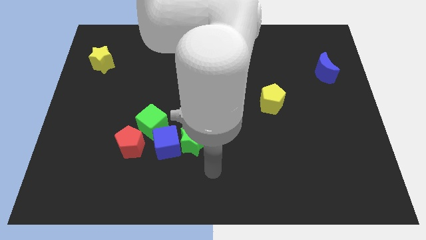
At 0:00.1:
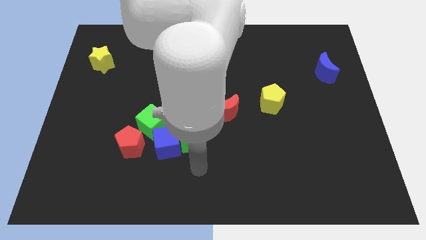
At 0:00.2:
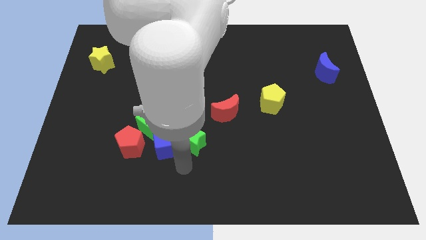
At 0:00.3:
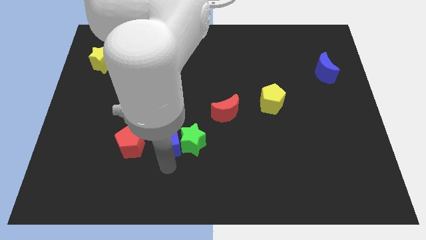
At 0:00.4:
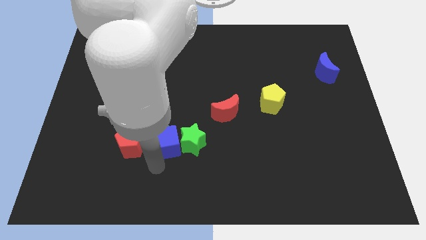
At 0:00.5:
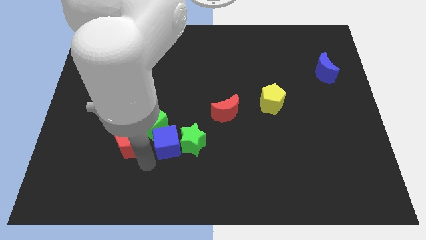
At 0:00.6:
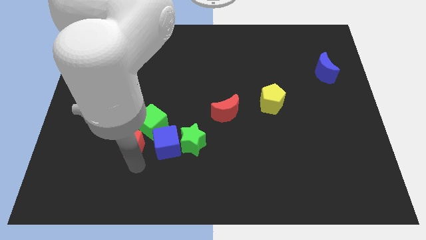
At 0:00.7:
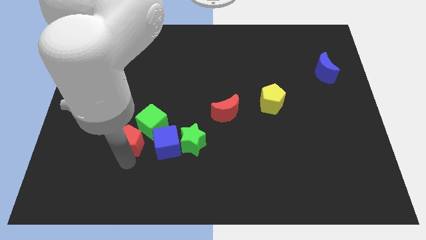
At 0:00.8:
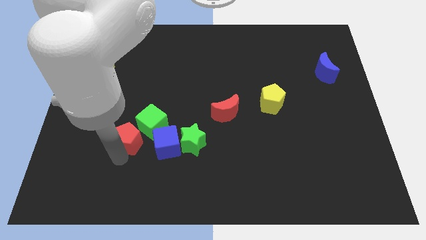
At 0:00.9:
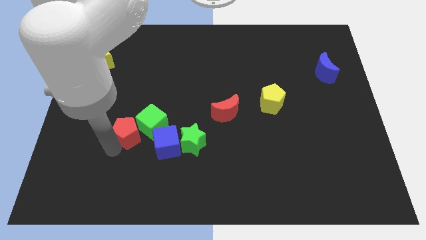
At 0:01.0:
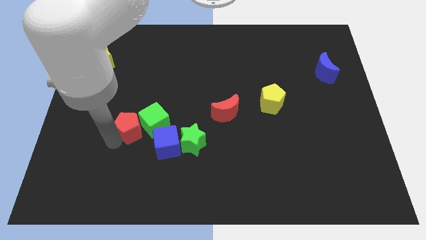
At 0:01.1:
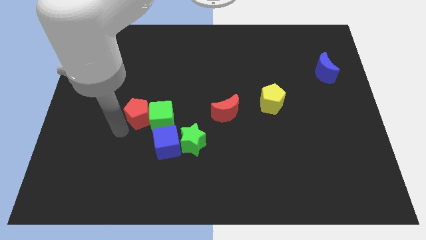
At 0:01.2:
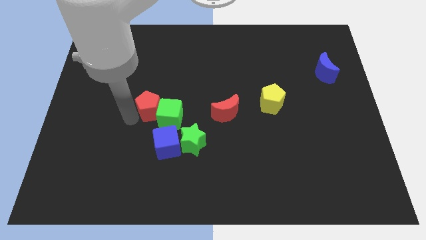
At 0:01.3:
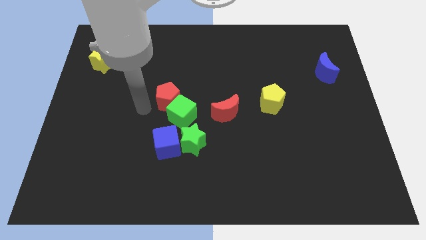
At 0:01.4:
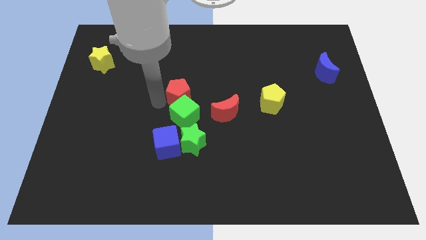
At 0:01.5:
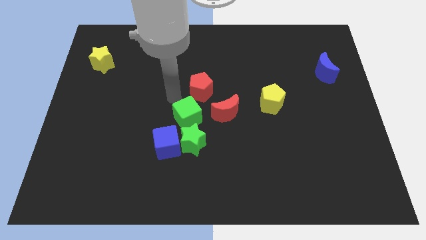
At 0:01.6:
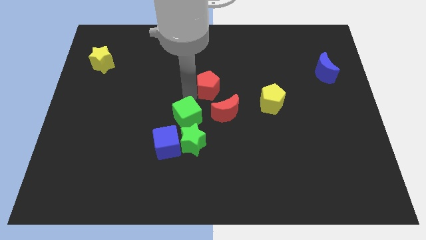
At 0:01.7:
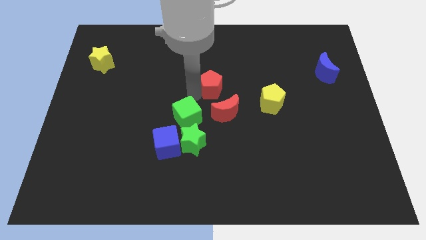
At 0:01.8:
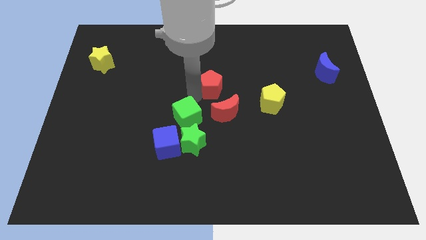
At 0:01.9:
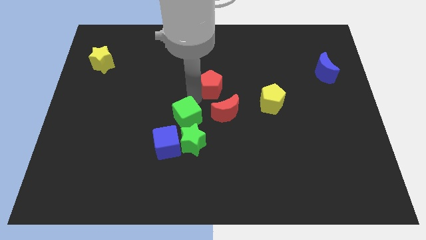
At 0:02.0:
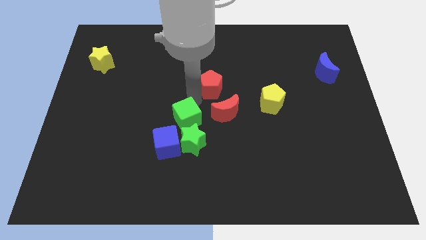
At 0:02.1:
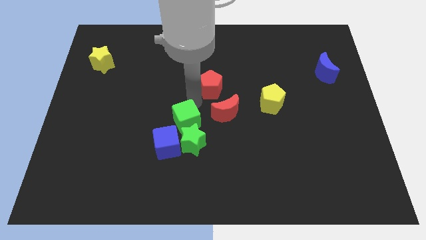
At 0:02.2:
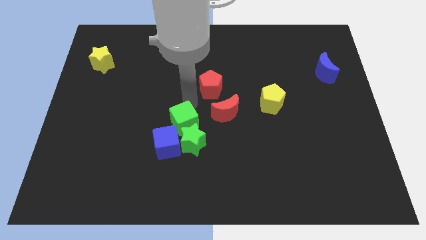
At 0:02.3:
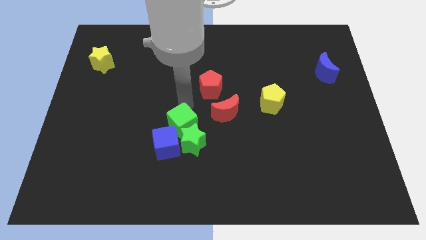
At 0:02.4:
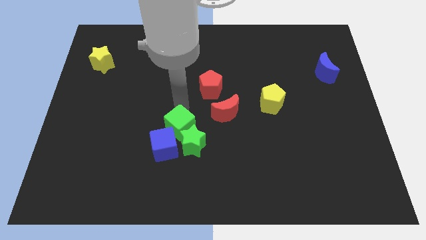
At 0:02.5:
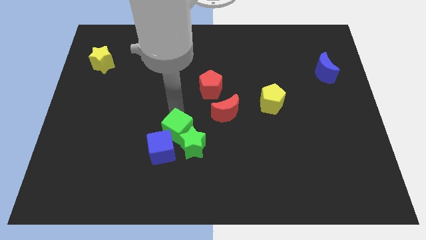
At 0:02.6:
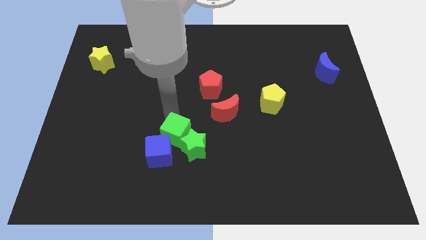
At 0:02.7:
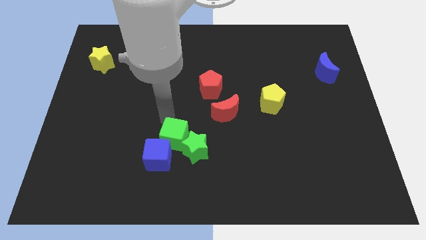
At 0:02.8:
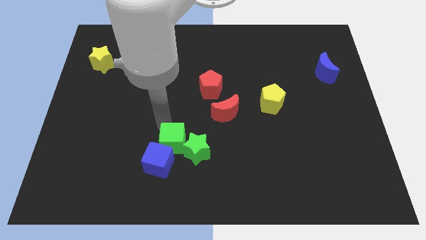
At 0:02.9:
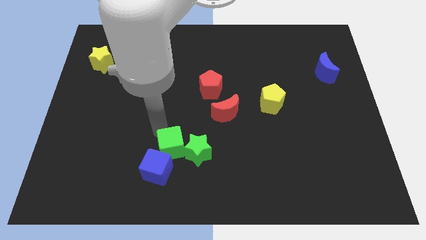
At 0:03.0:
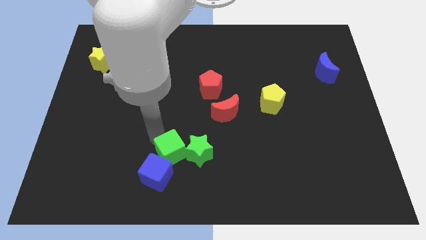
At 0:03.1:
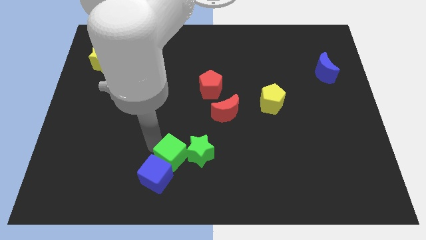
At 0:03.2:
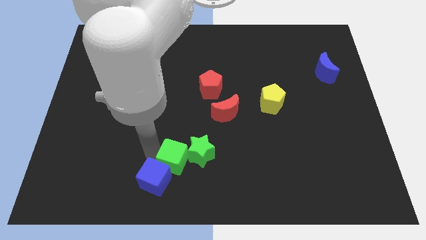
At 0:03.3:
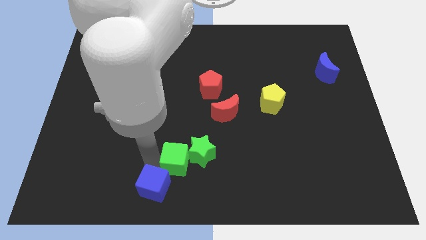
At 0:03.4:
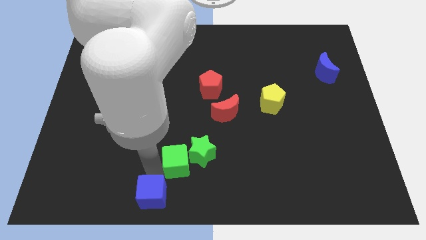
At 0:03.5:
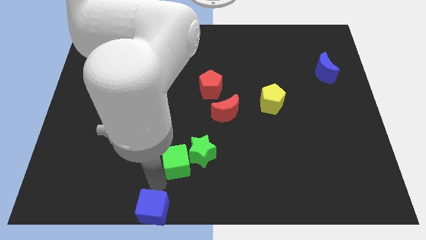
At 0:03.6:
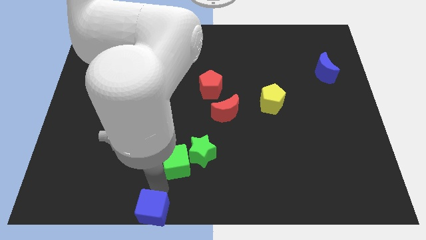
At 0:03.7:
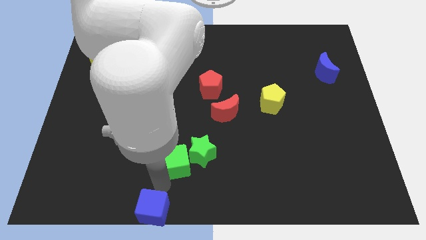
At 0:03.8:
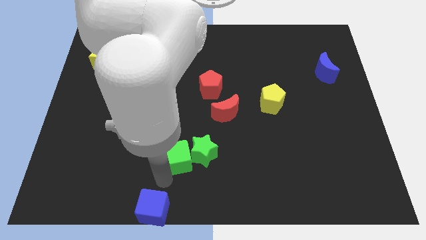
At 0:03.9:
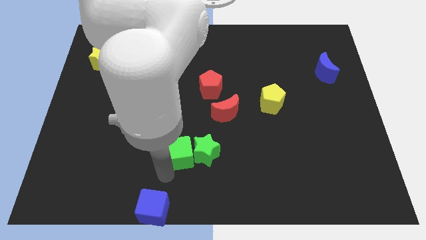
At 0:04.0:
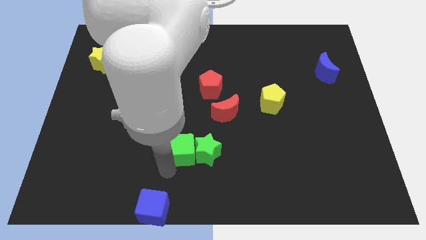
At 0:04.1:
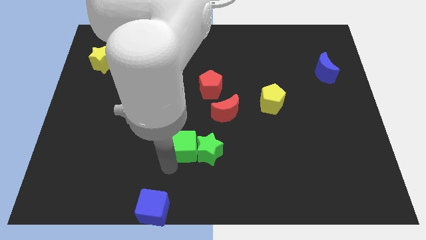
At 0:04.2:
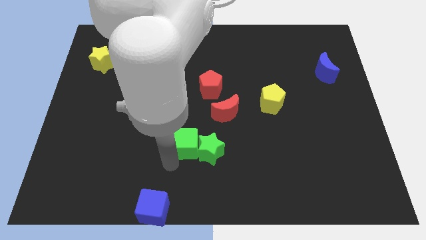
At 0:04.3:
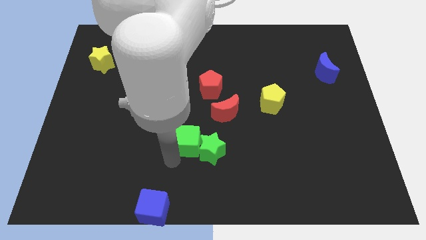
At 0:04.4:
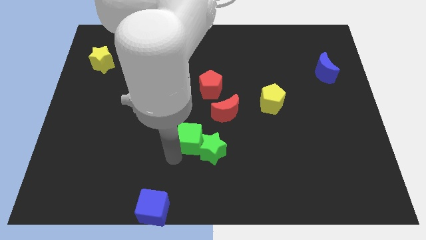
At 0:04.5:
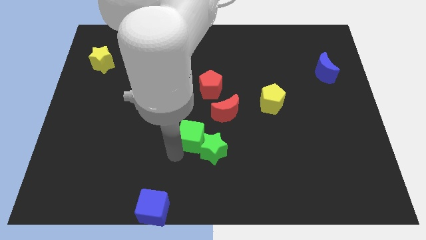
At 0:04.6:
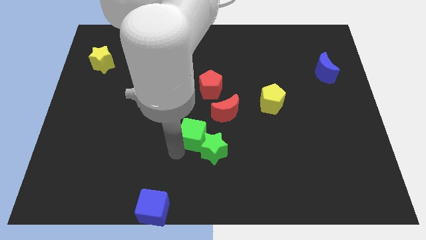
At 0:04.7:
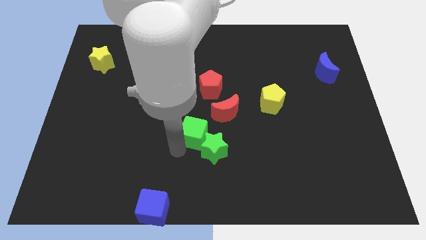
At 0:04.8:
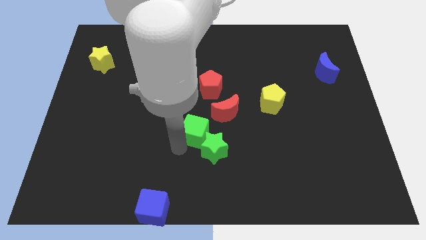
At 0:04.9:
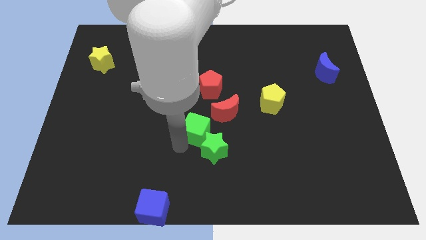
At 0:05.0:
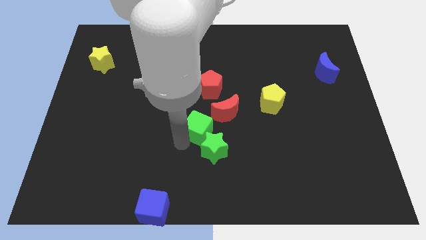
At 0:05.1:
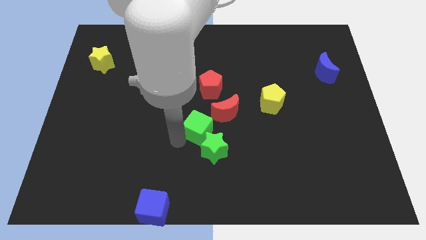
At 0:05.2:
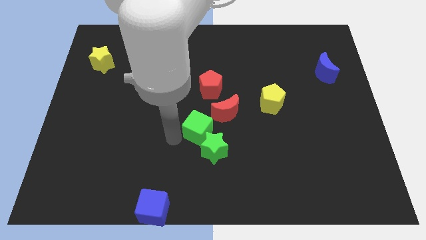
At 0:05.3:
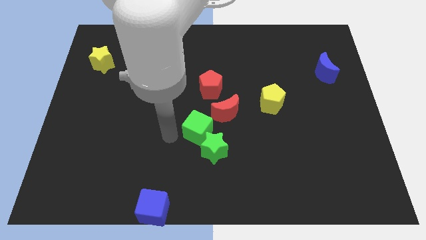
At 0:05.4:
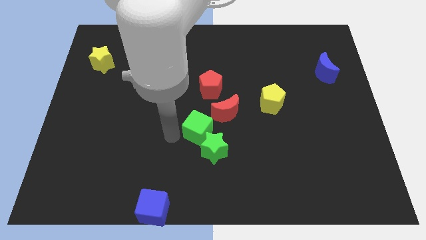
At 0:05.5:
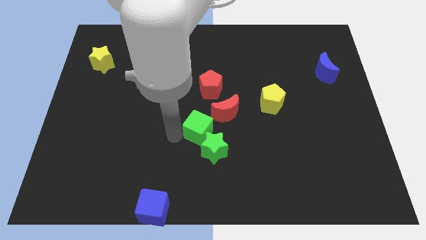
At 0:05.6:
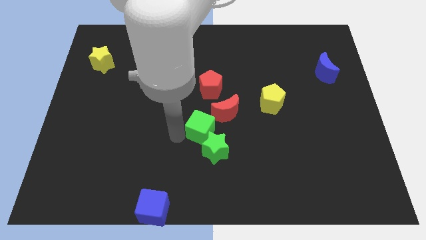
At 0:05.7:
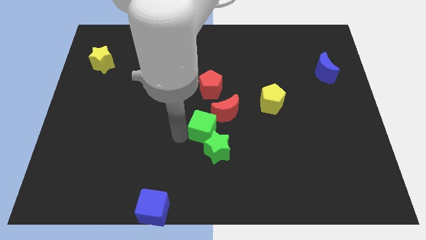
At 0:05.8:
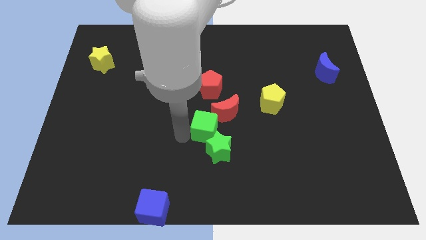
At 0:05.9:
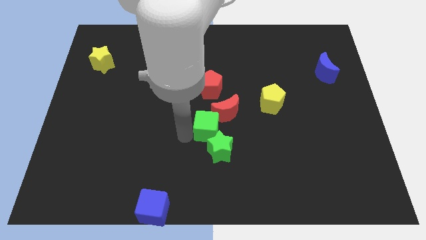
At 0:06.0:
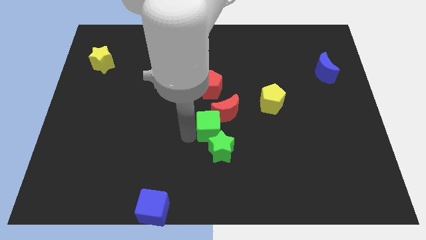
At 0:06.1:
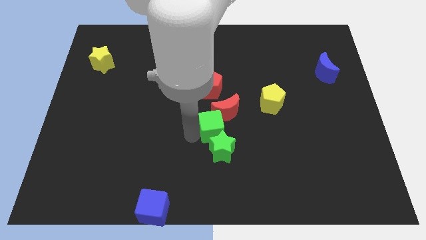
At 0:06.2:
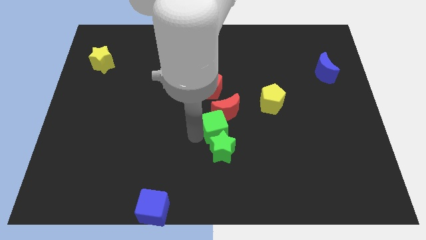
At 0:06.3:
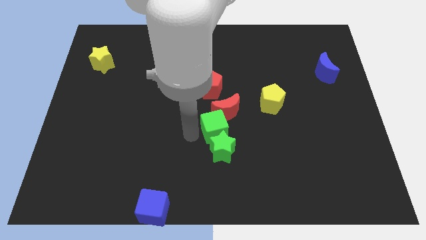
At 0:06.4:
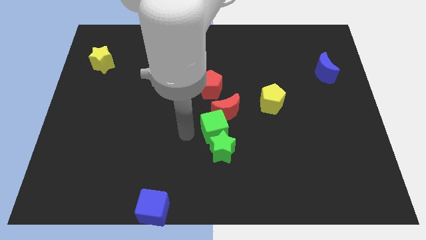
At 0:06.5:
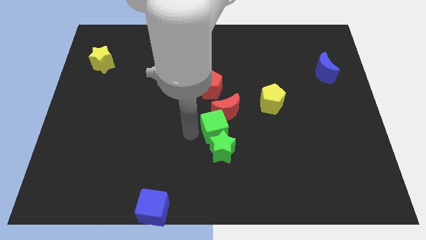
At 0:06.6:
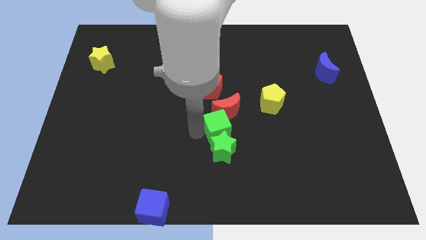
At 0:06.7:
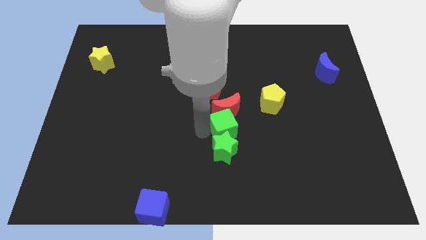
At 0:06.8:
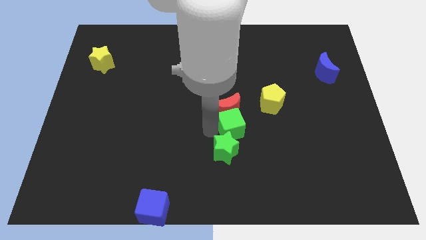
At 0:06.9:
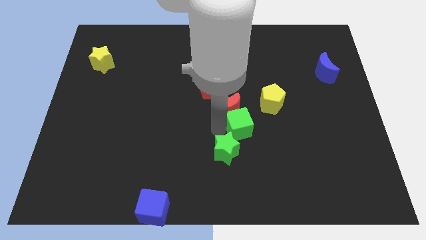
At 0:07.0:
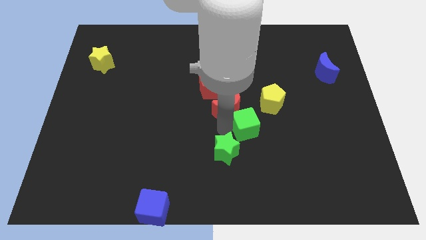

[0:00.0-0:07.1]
slide the green cube right

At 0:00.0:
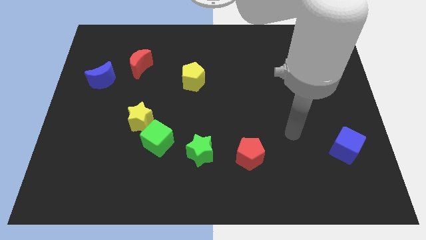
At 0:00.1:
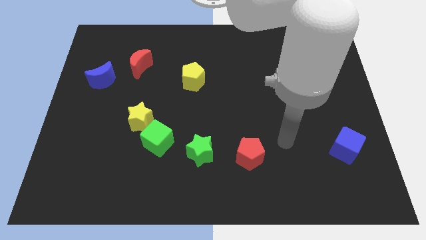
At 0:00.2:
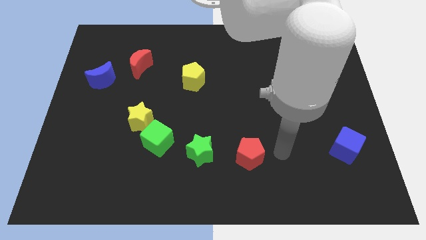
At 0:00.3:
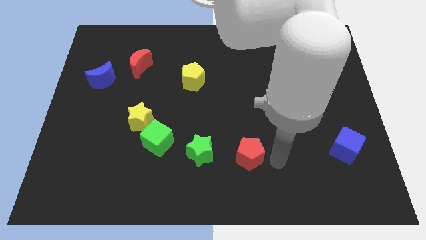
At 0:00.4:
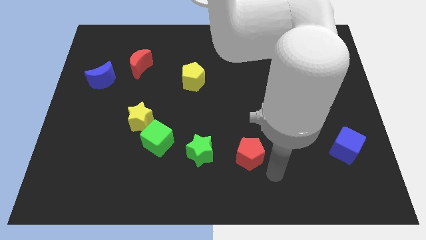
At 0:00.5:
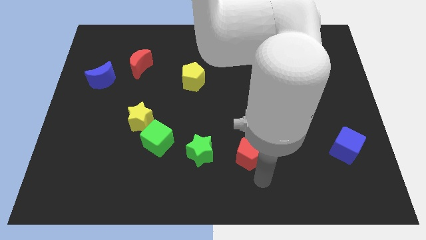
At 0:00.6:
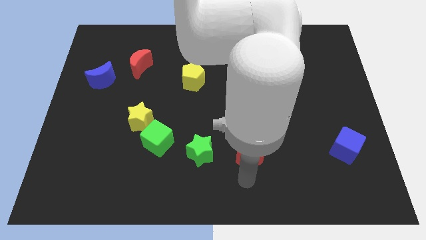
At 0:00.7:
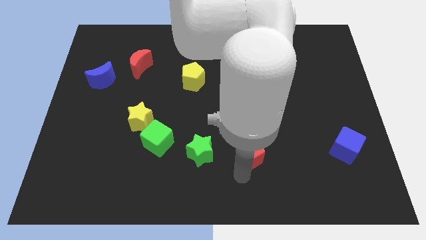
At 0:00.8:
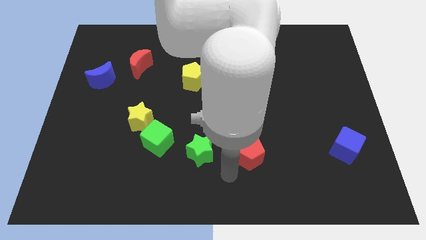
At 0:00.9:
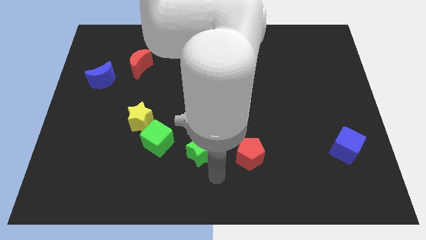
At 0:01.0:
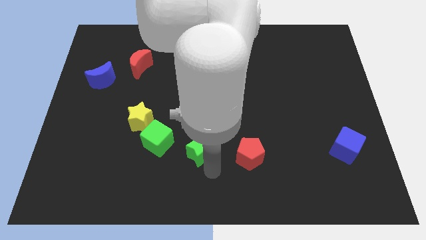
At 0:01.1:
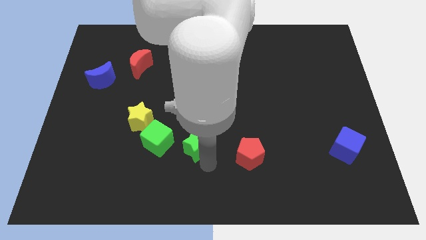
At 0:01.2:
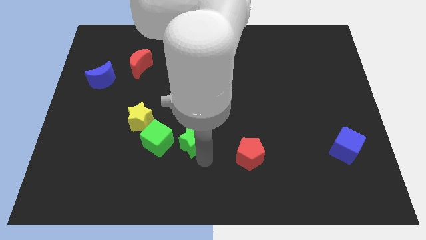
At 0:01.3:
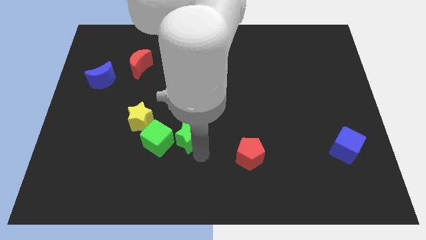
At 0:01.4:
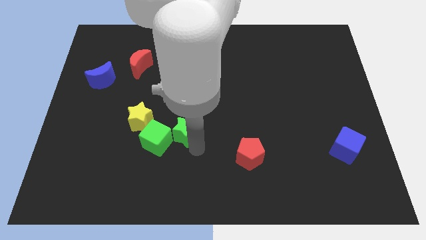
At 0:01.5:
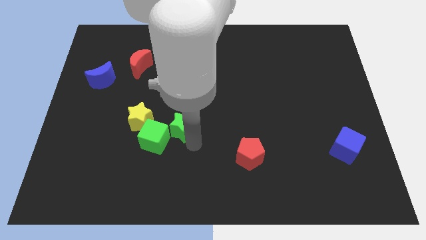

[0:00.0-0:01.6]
slightly slide the green star upwards and left

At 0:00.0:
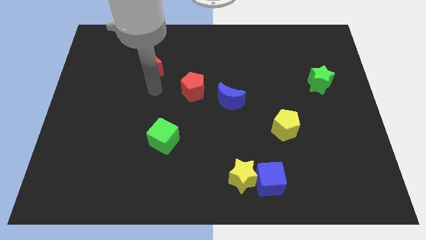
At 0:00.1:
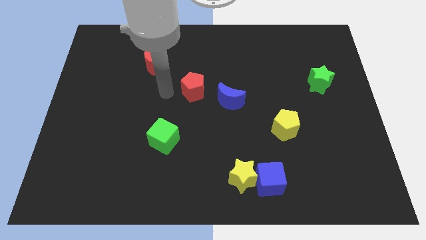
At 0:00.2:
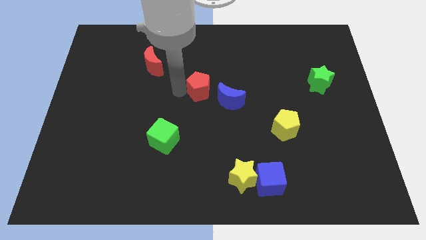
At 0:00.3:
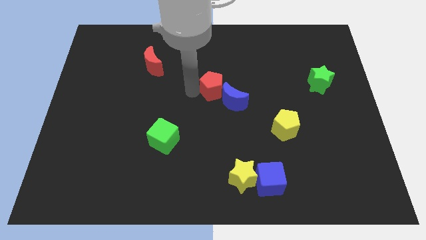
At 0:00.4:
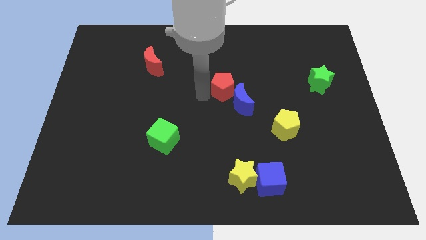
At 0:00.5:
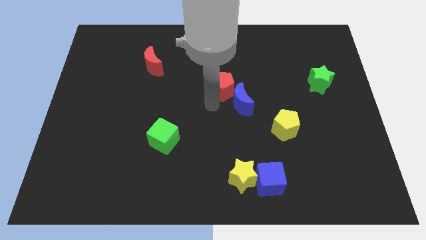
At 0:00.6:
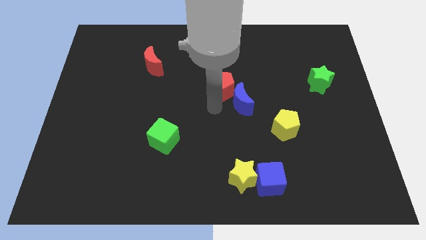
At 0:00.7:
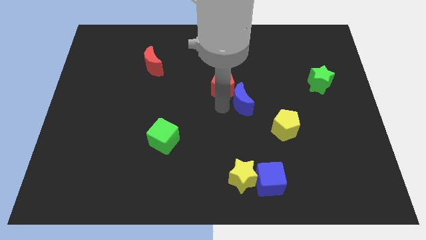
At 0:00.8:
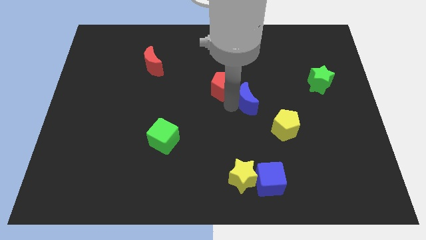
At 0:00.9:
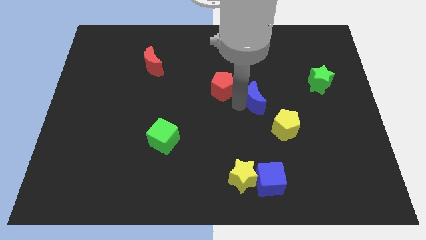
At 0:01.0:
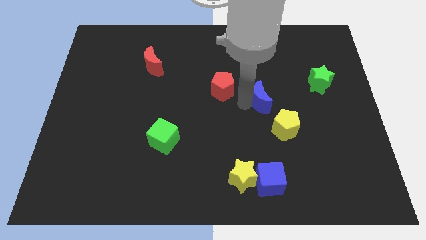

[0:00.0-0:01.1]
push the blue moon right a bit
